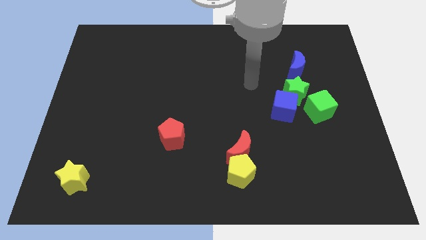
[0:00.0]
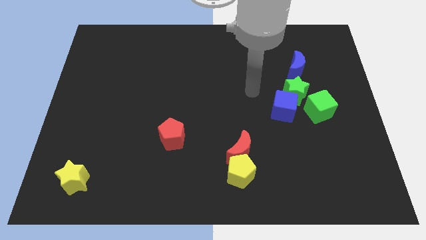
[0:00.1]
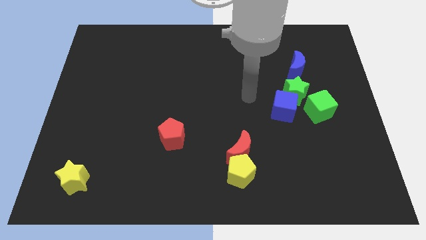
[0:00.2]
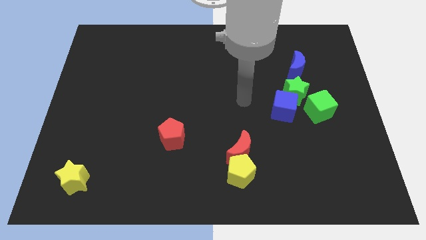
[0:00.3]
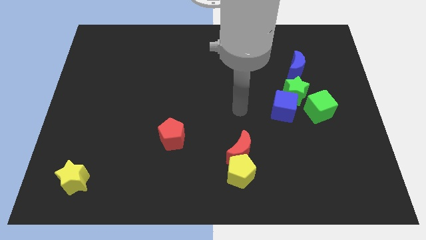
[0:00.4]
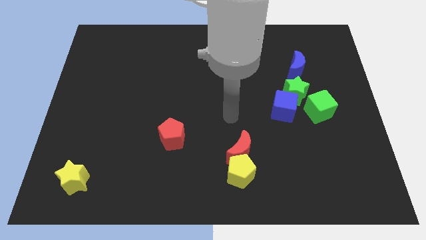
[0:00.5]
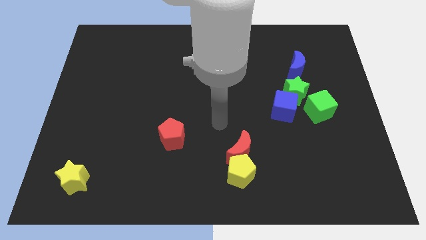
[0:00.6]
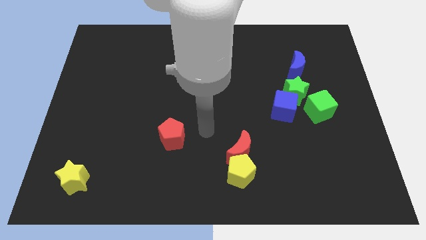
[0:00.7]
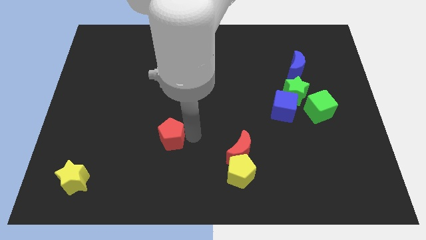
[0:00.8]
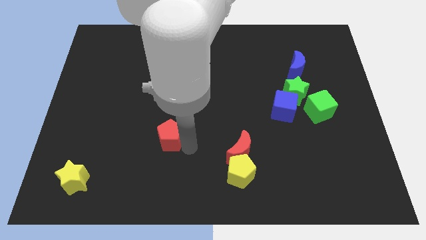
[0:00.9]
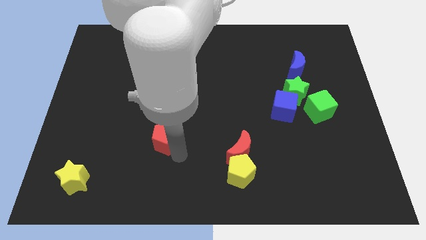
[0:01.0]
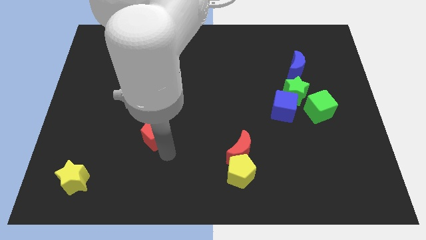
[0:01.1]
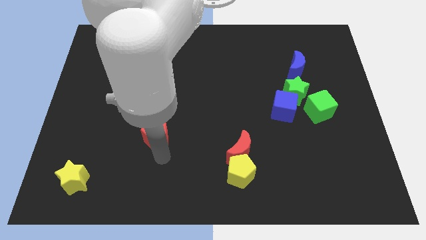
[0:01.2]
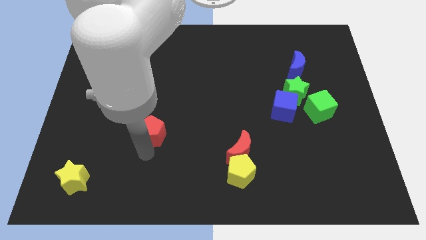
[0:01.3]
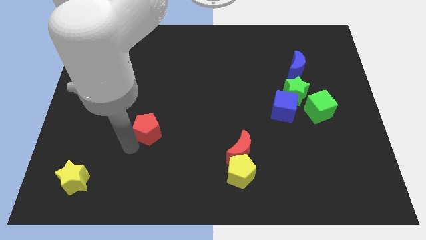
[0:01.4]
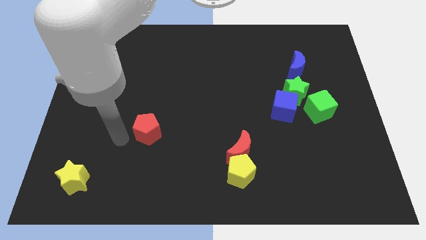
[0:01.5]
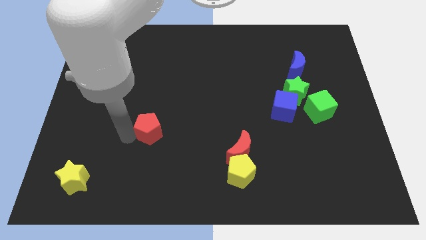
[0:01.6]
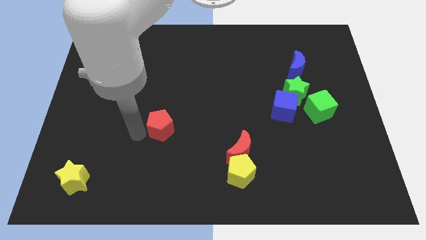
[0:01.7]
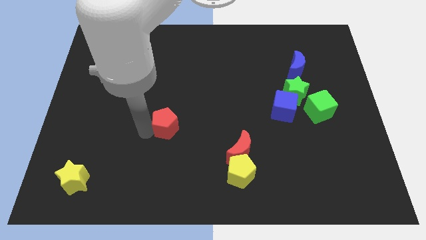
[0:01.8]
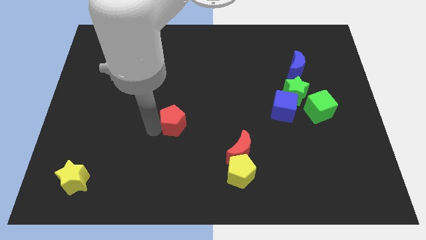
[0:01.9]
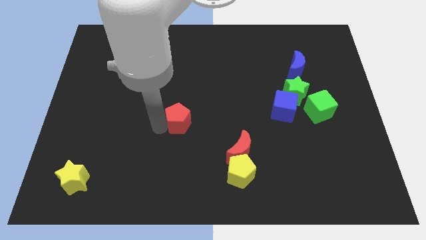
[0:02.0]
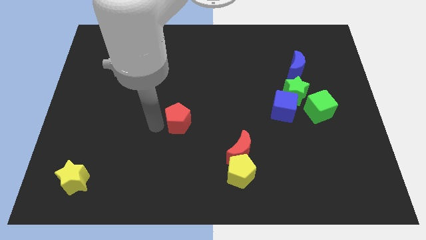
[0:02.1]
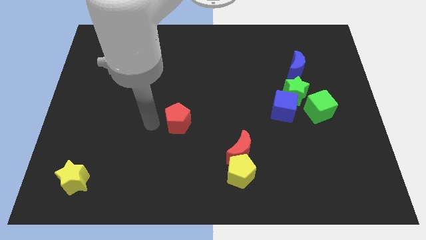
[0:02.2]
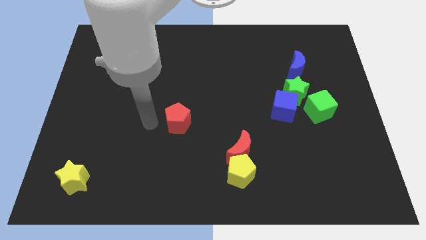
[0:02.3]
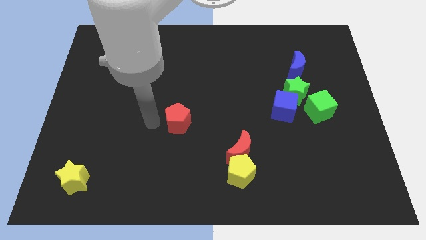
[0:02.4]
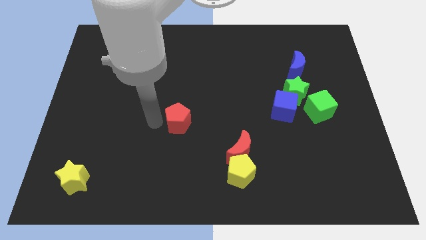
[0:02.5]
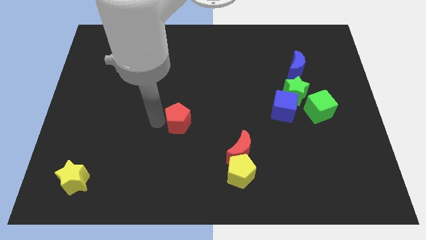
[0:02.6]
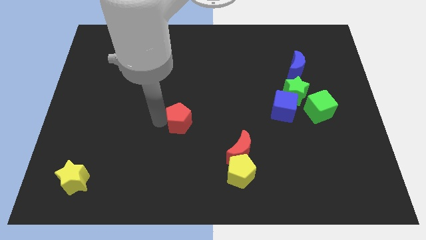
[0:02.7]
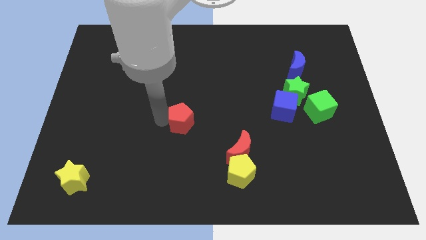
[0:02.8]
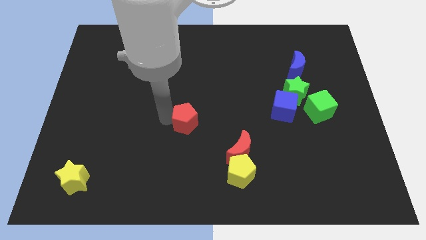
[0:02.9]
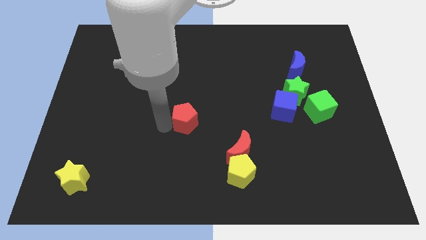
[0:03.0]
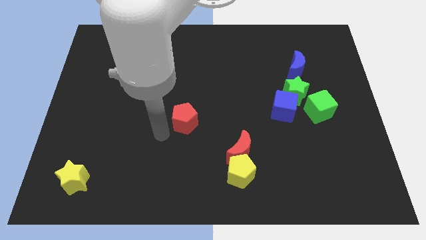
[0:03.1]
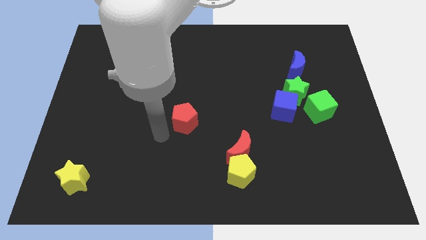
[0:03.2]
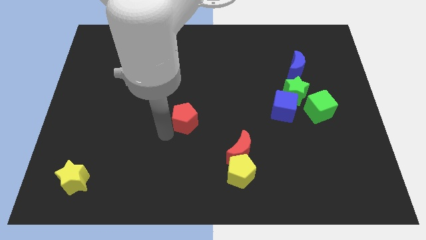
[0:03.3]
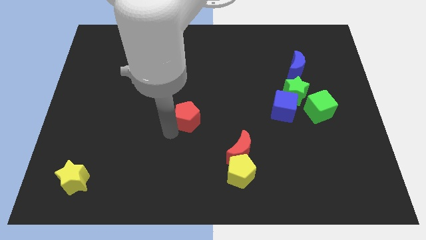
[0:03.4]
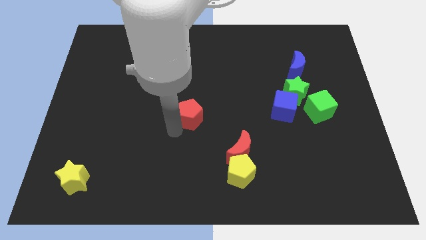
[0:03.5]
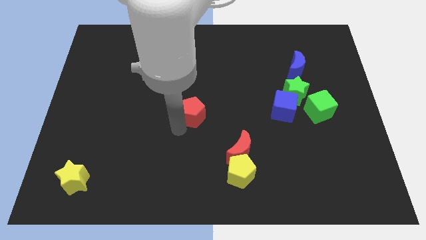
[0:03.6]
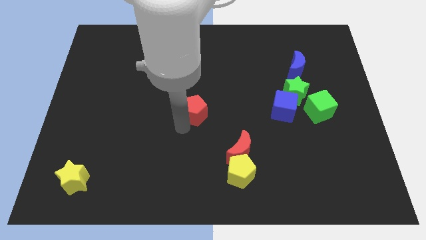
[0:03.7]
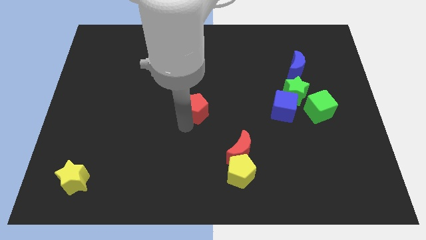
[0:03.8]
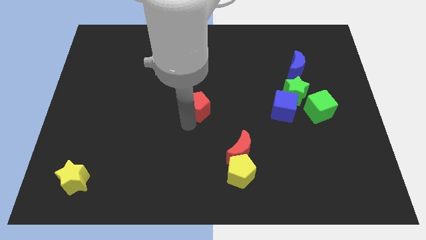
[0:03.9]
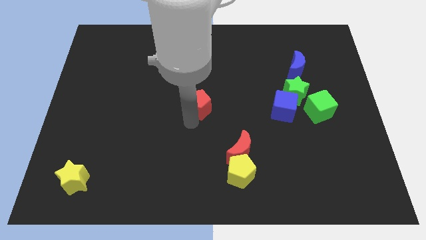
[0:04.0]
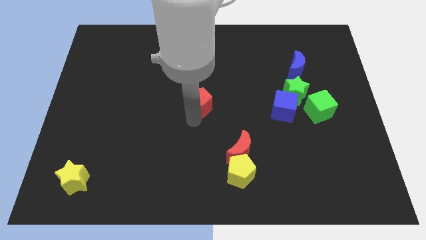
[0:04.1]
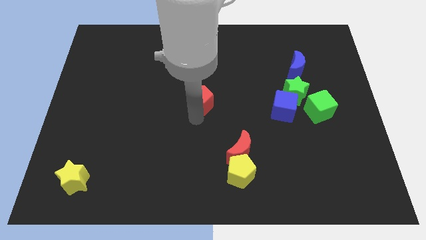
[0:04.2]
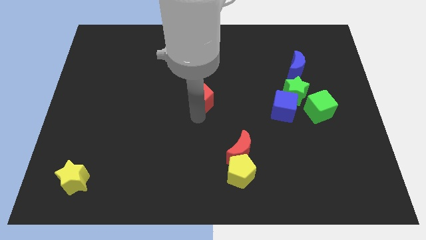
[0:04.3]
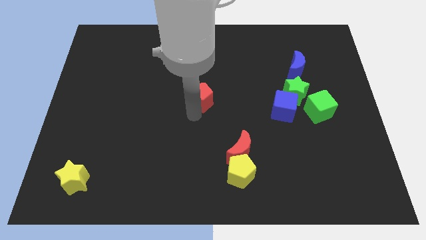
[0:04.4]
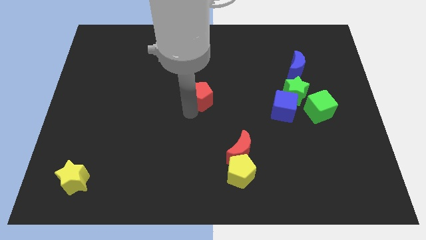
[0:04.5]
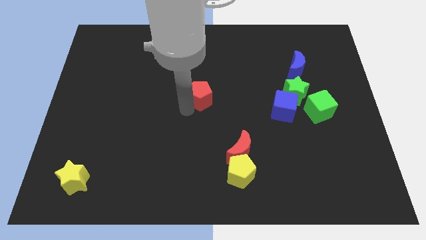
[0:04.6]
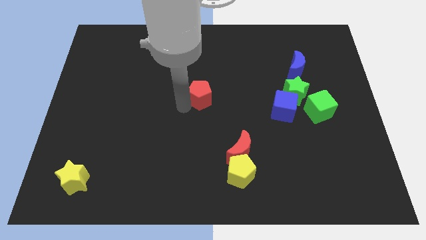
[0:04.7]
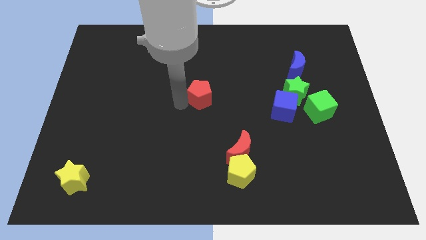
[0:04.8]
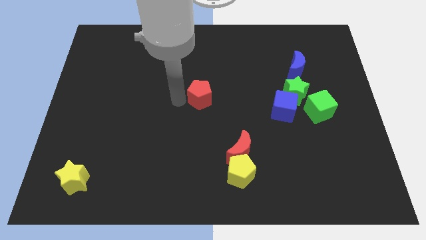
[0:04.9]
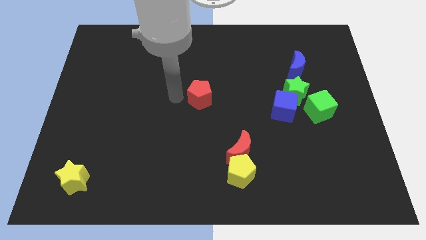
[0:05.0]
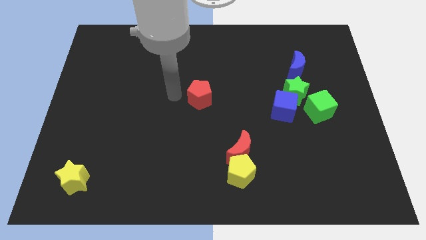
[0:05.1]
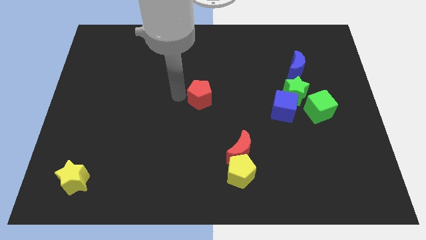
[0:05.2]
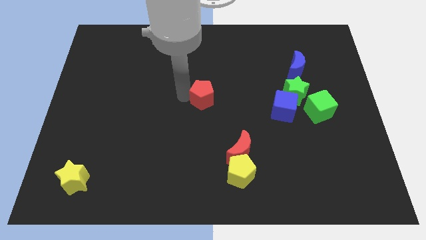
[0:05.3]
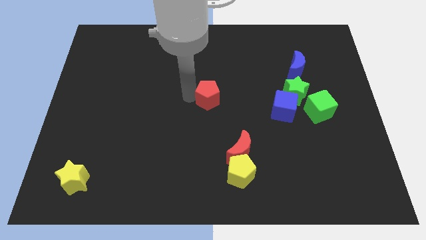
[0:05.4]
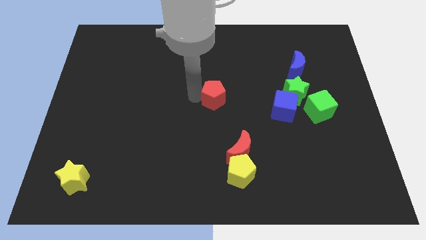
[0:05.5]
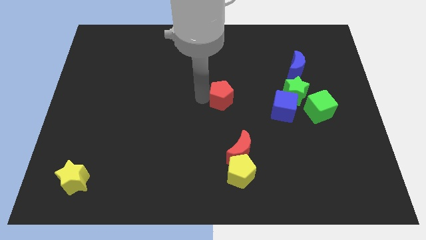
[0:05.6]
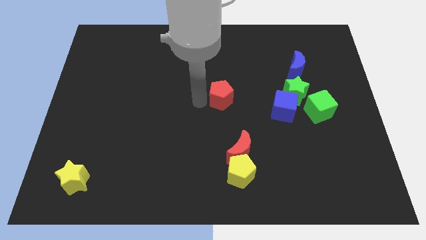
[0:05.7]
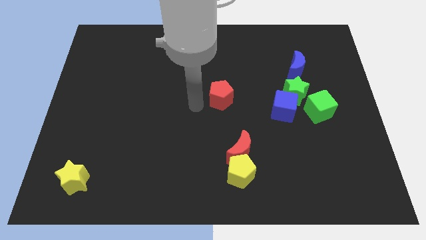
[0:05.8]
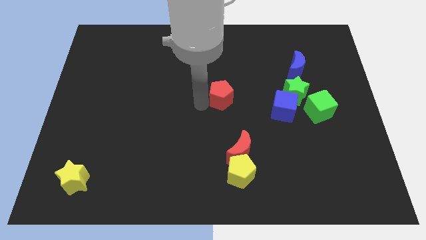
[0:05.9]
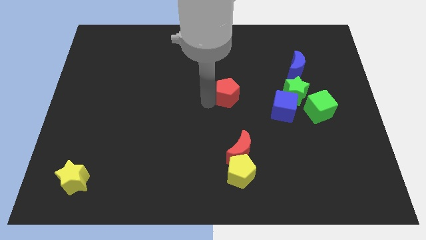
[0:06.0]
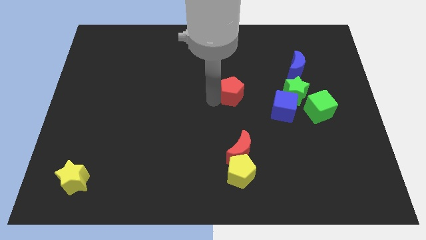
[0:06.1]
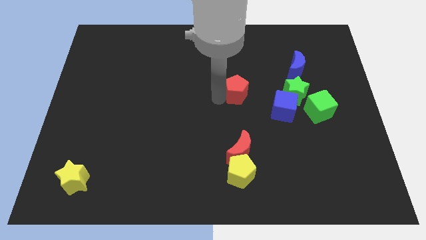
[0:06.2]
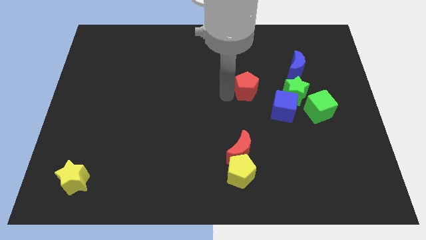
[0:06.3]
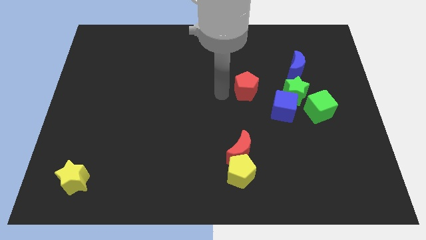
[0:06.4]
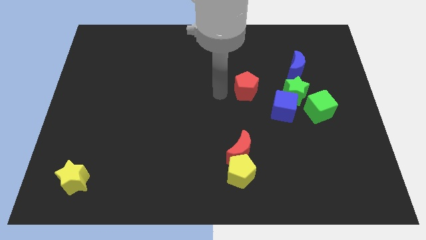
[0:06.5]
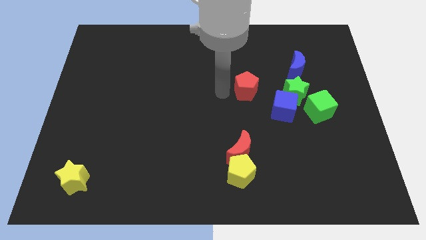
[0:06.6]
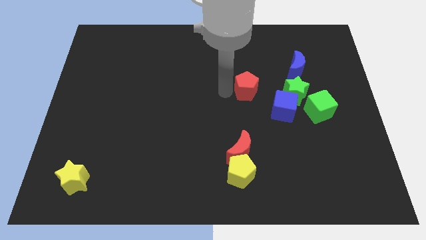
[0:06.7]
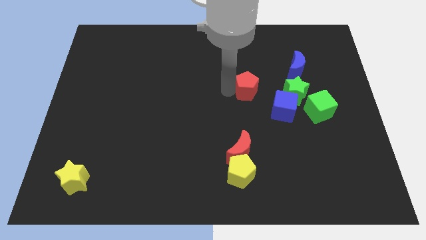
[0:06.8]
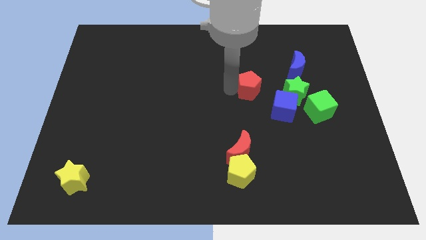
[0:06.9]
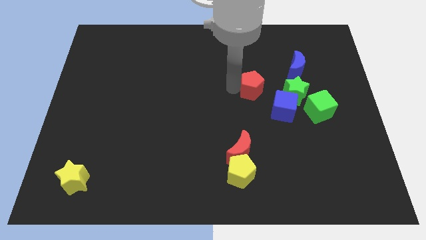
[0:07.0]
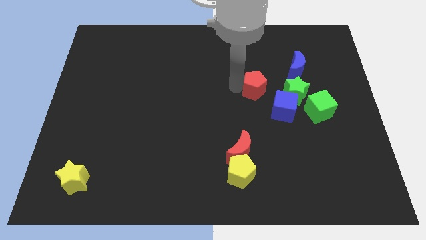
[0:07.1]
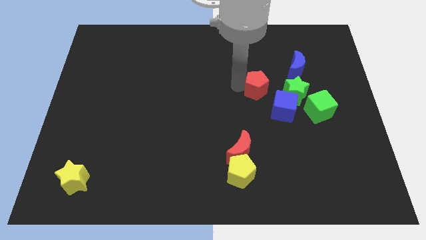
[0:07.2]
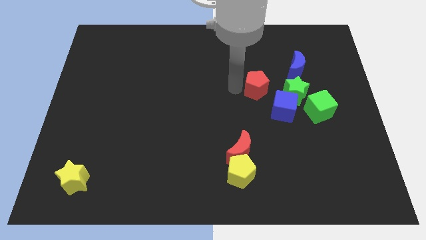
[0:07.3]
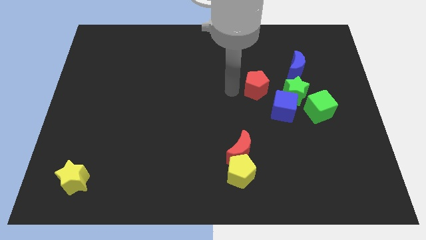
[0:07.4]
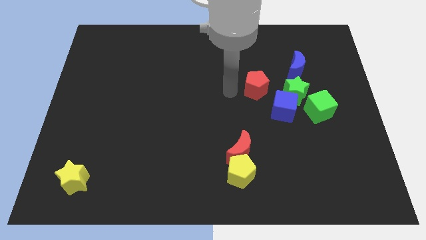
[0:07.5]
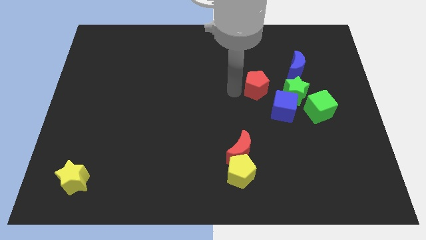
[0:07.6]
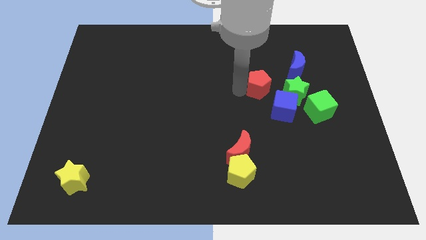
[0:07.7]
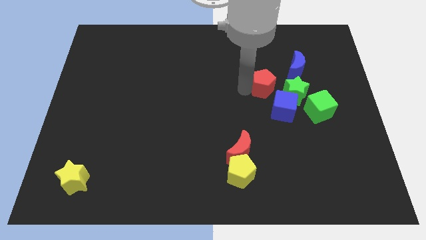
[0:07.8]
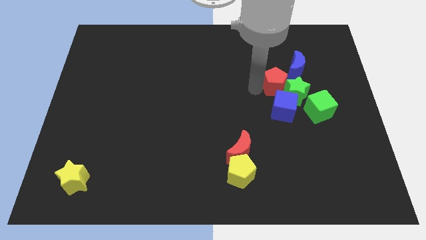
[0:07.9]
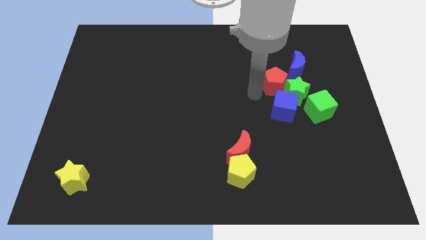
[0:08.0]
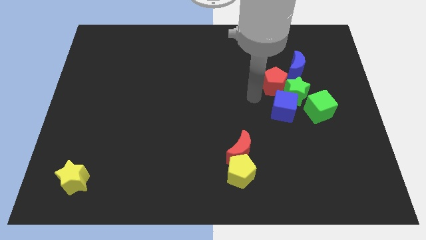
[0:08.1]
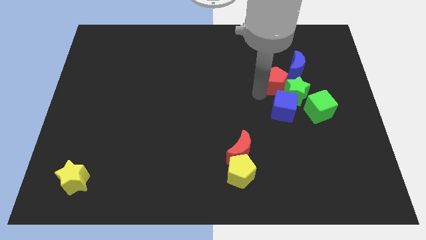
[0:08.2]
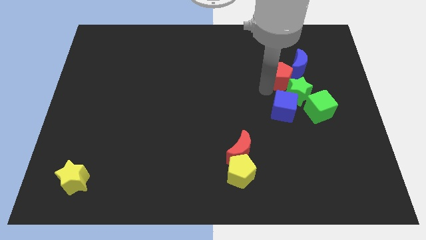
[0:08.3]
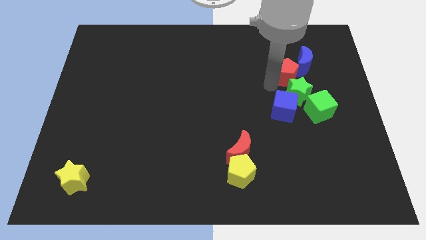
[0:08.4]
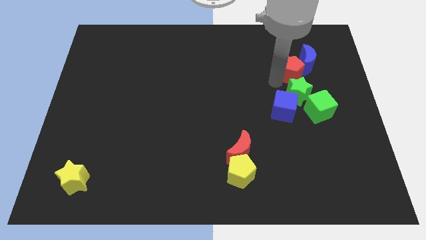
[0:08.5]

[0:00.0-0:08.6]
push the red pentagon to the blue moon
